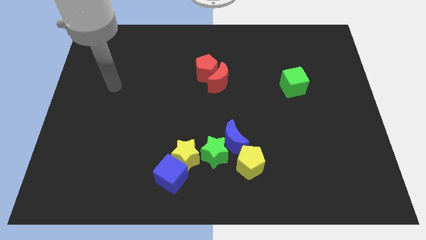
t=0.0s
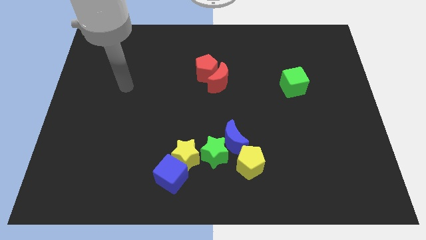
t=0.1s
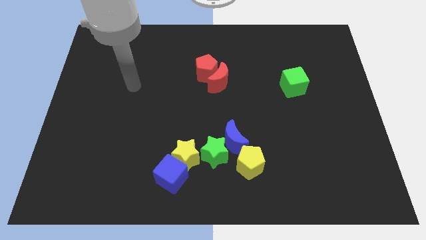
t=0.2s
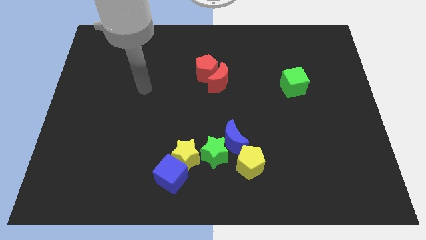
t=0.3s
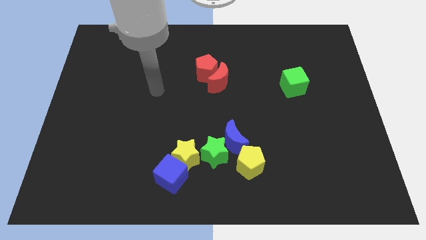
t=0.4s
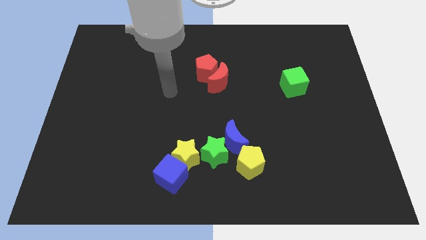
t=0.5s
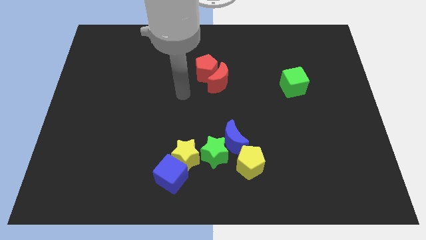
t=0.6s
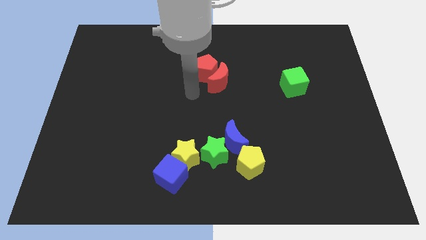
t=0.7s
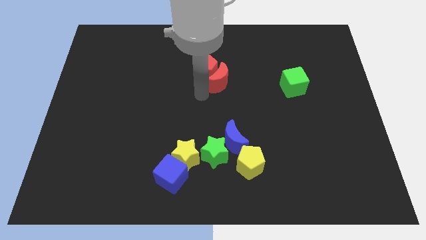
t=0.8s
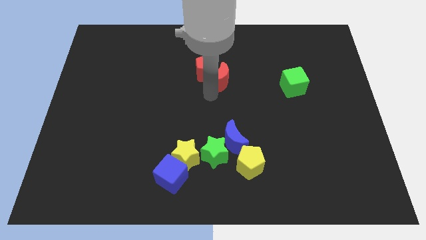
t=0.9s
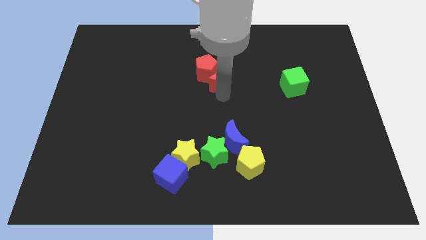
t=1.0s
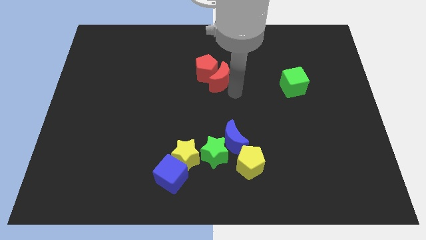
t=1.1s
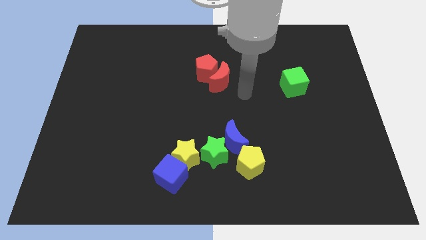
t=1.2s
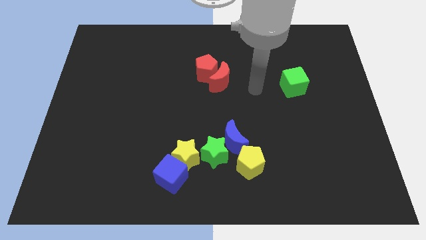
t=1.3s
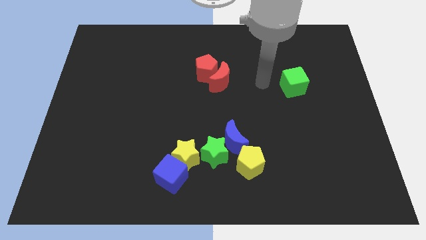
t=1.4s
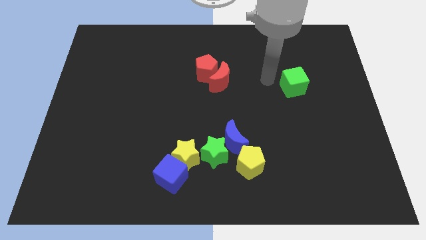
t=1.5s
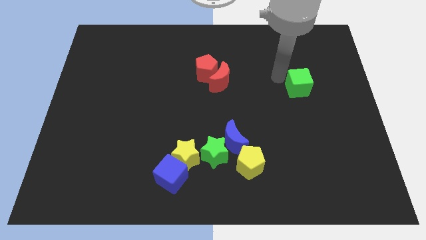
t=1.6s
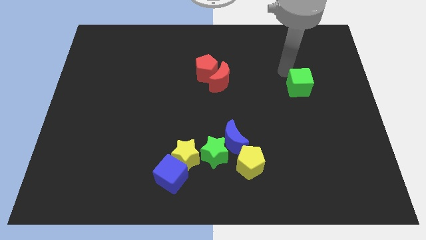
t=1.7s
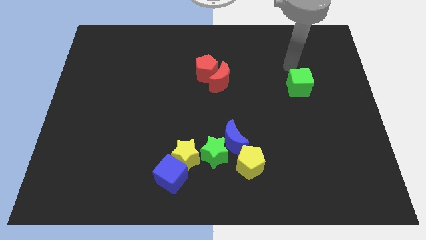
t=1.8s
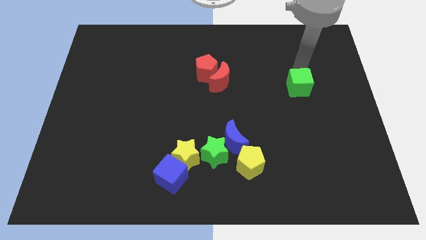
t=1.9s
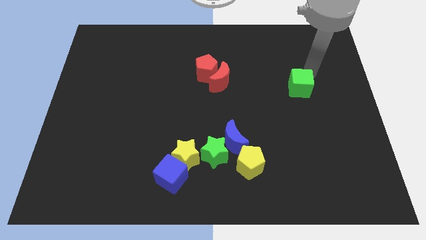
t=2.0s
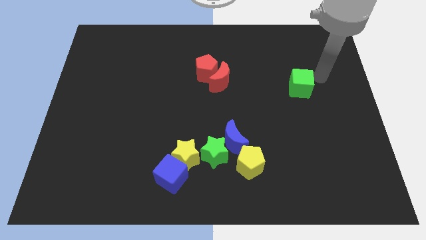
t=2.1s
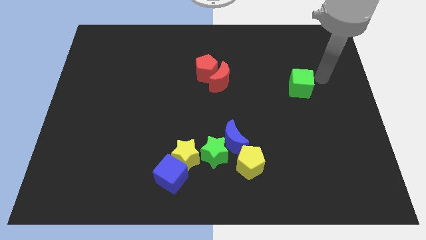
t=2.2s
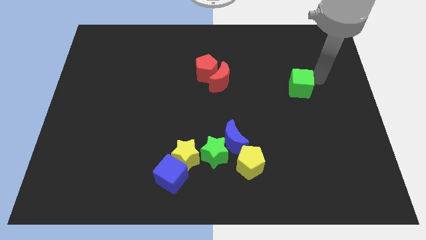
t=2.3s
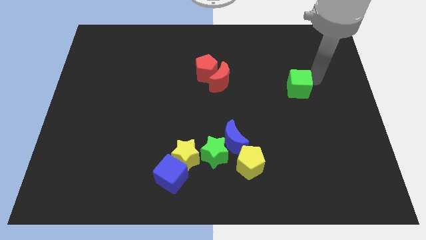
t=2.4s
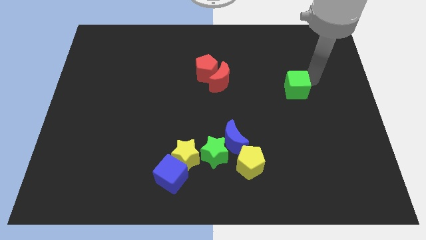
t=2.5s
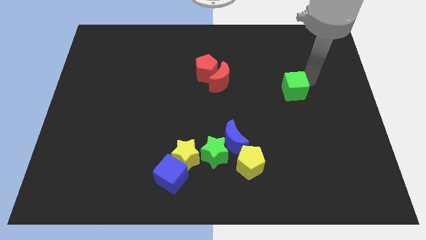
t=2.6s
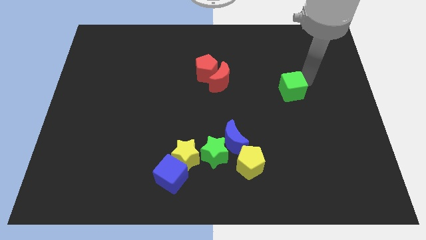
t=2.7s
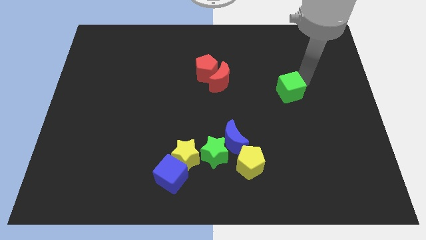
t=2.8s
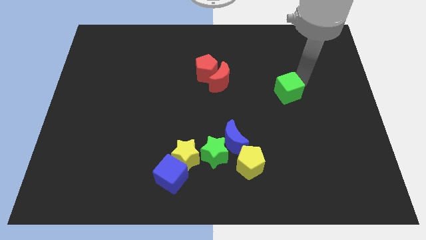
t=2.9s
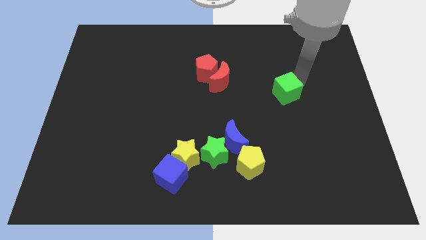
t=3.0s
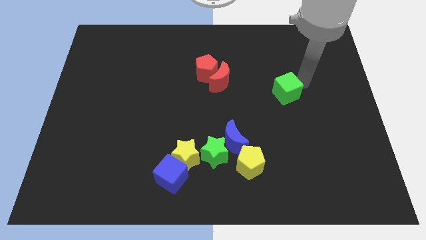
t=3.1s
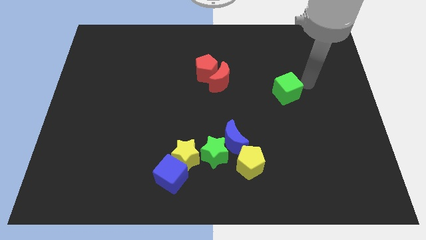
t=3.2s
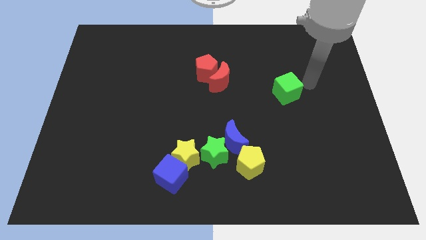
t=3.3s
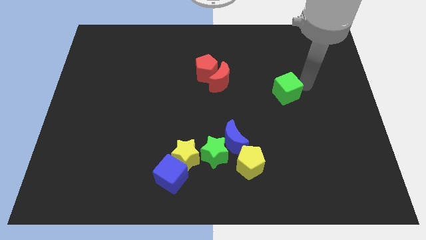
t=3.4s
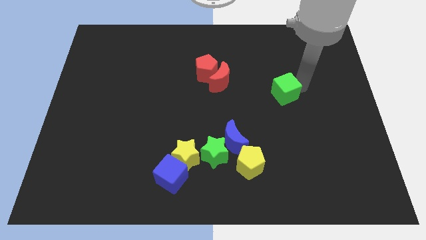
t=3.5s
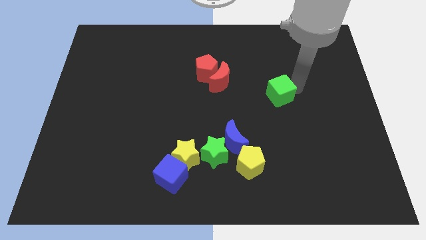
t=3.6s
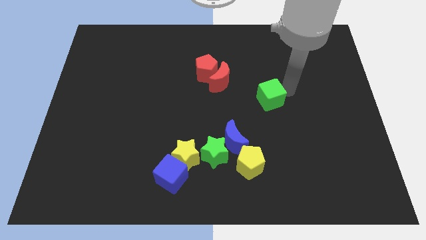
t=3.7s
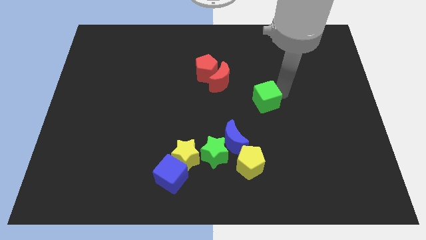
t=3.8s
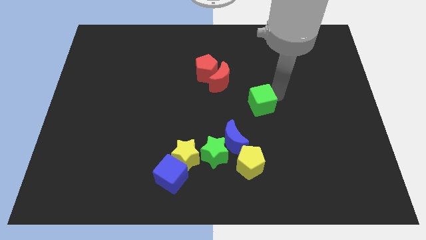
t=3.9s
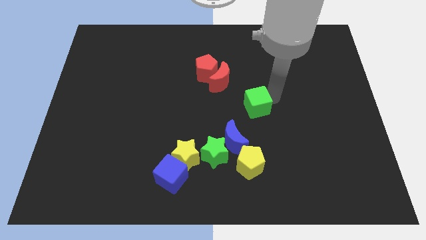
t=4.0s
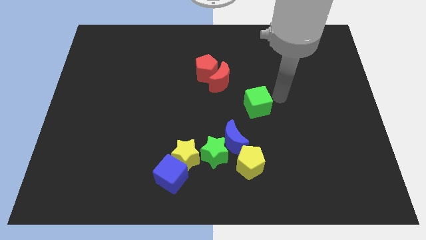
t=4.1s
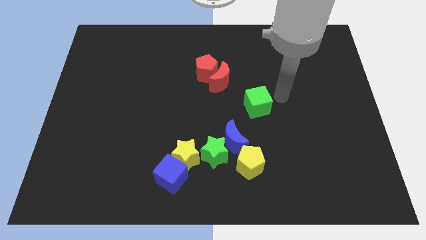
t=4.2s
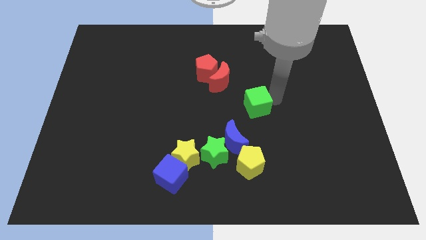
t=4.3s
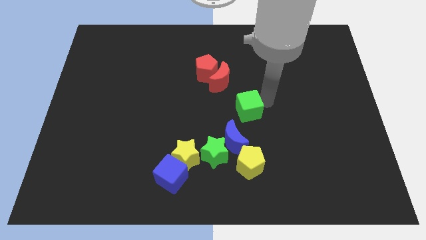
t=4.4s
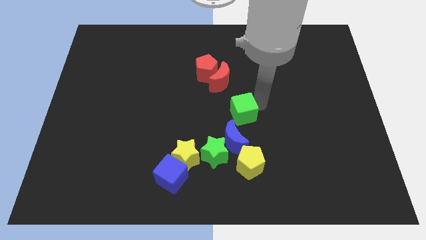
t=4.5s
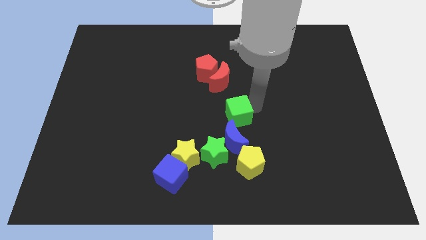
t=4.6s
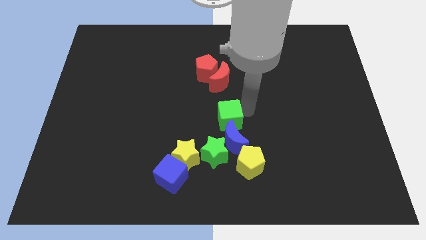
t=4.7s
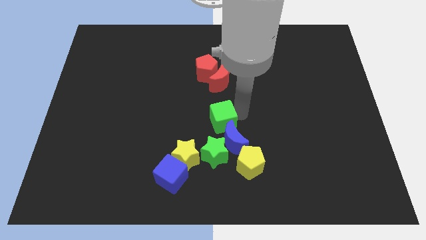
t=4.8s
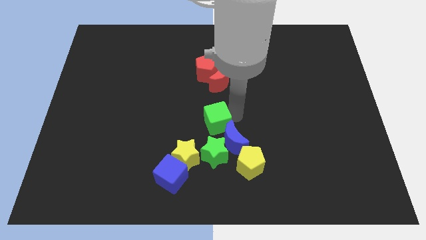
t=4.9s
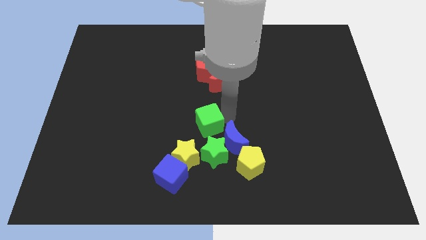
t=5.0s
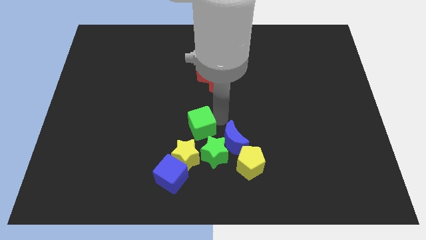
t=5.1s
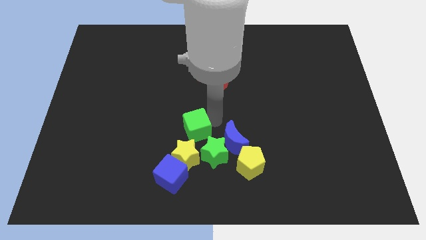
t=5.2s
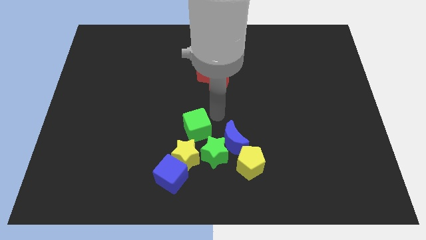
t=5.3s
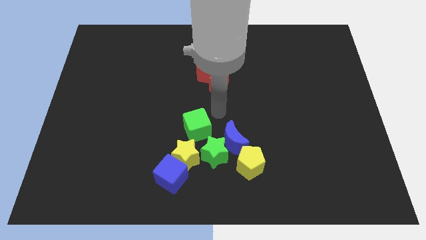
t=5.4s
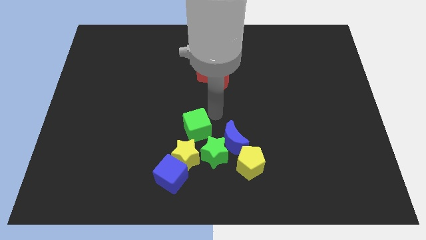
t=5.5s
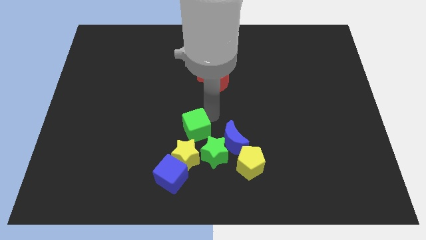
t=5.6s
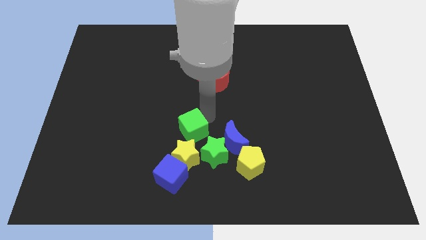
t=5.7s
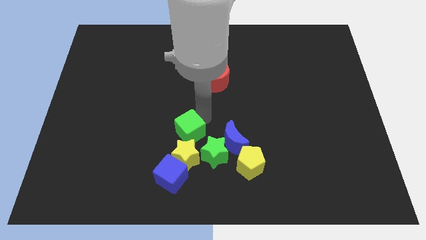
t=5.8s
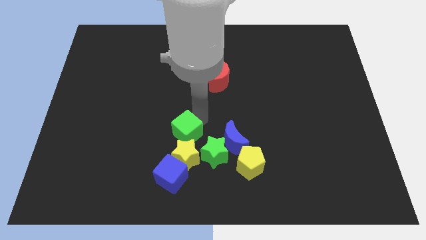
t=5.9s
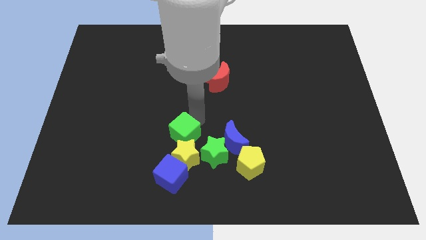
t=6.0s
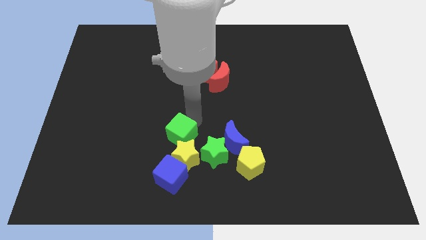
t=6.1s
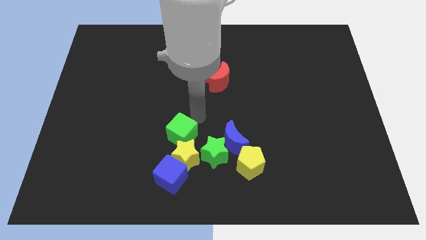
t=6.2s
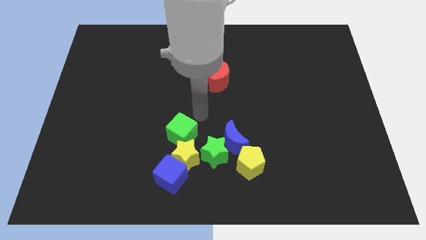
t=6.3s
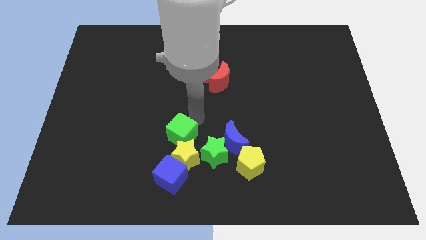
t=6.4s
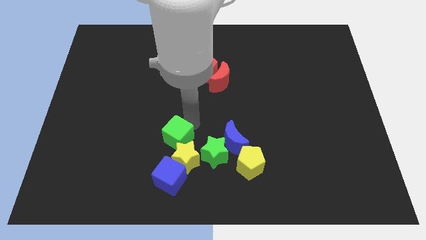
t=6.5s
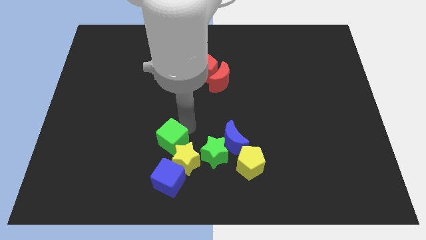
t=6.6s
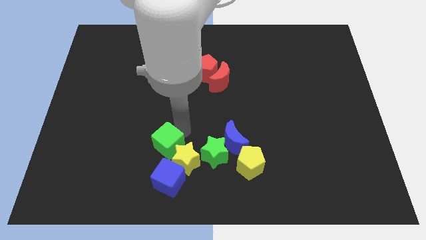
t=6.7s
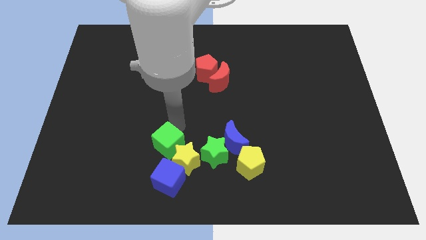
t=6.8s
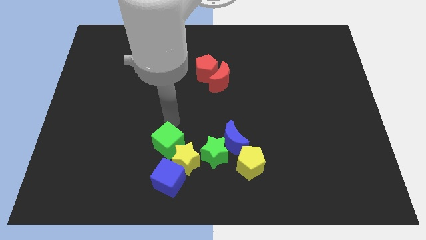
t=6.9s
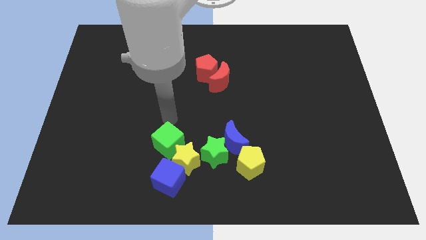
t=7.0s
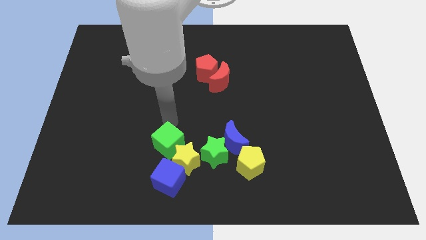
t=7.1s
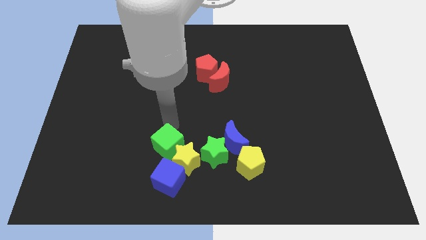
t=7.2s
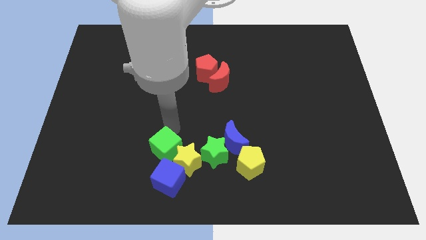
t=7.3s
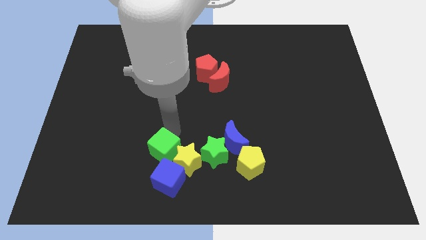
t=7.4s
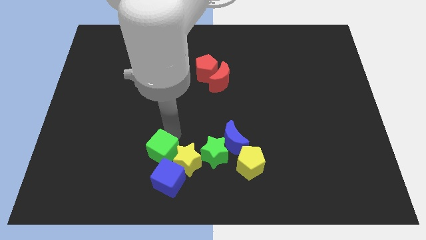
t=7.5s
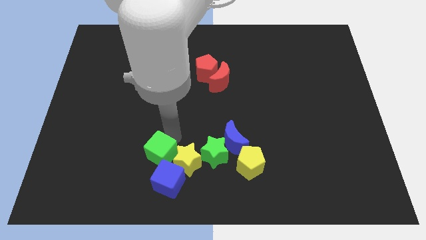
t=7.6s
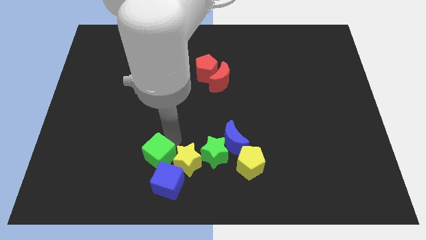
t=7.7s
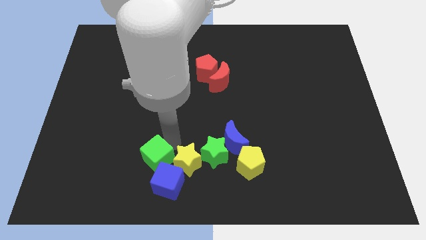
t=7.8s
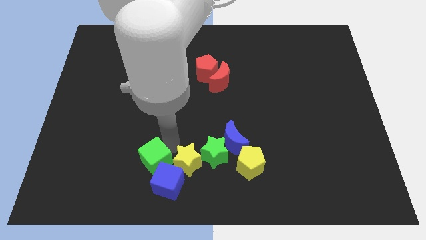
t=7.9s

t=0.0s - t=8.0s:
move the green cube close to the blue cube
